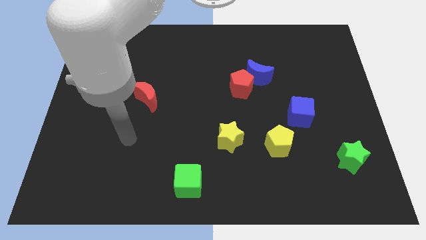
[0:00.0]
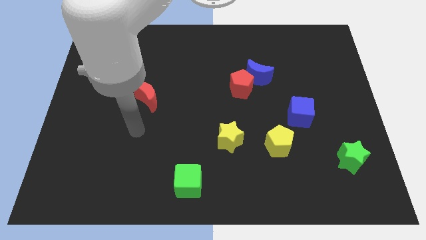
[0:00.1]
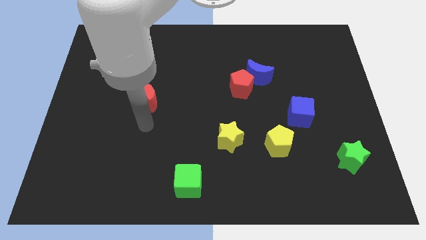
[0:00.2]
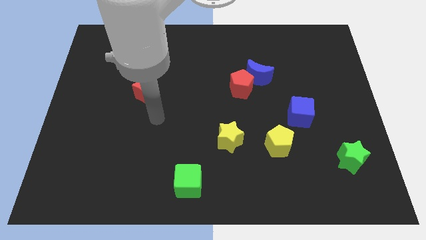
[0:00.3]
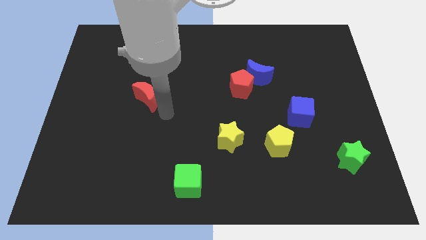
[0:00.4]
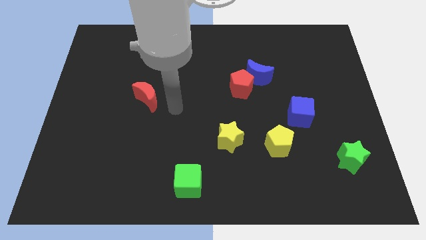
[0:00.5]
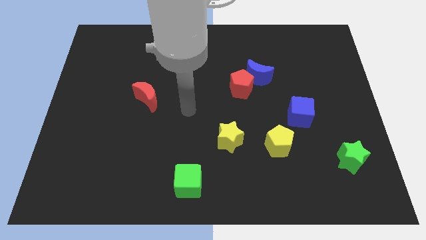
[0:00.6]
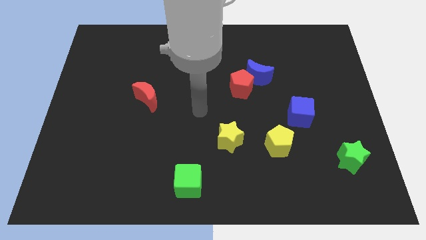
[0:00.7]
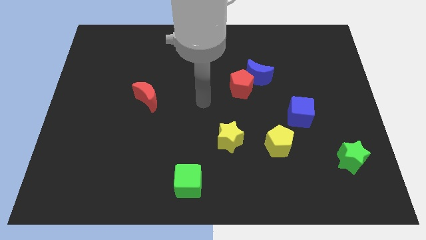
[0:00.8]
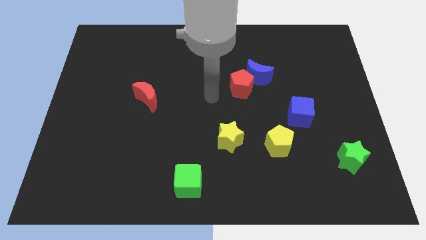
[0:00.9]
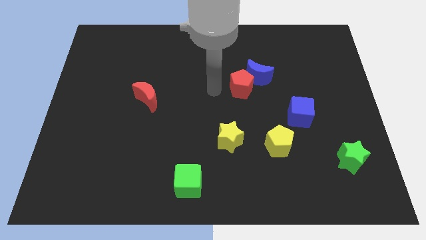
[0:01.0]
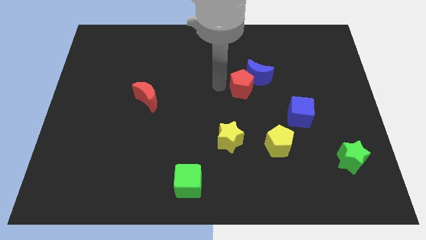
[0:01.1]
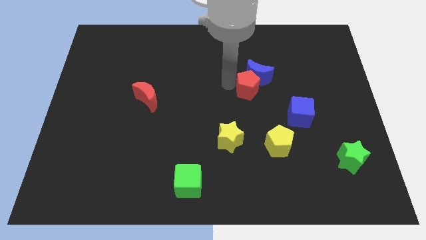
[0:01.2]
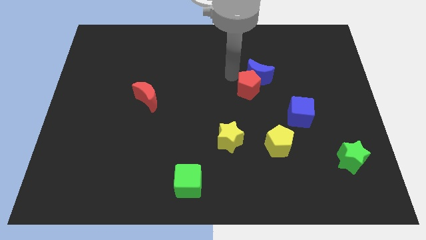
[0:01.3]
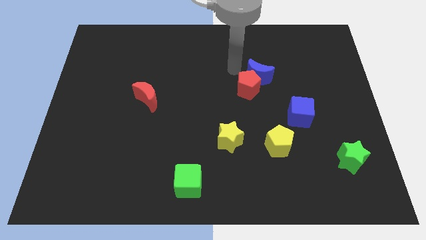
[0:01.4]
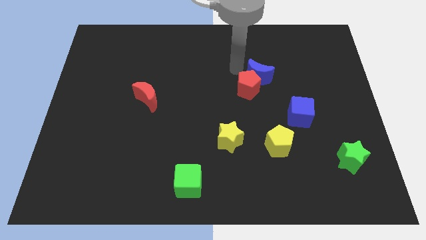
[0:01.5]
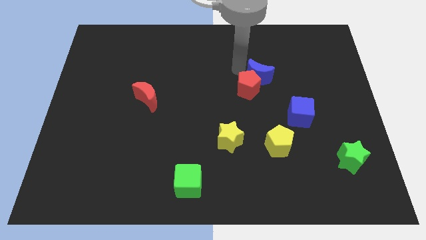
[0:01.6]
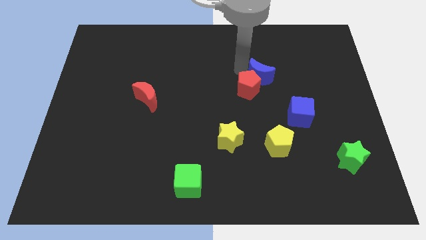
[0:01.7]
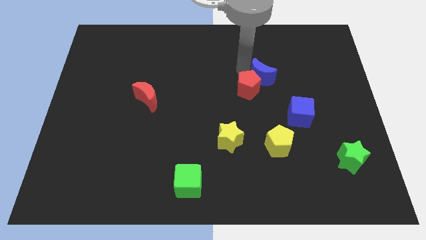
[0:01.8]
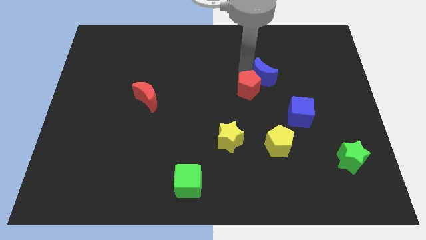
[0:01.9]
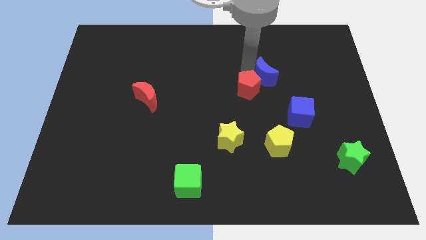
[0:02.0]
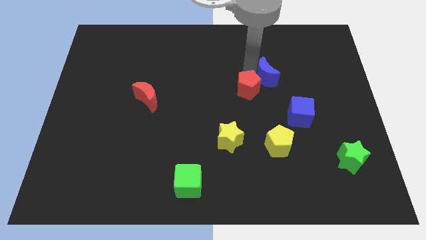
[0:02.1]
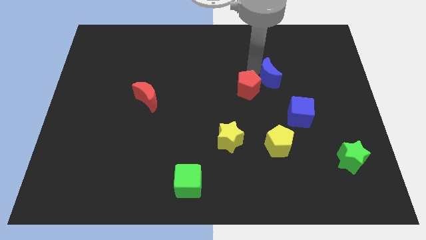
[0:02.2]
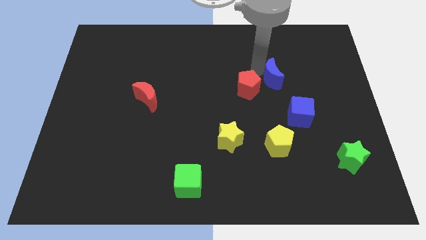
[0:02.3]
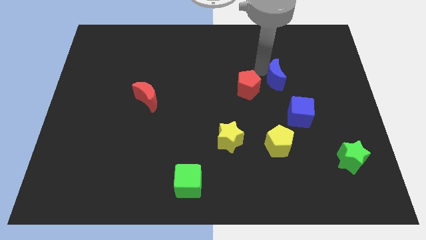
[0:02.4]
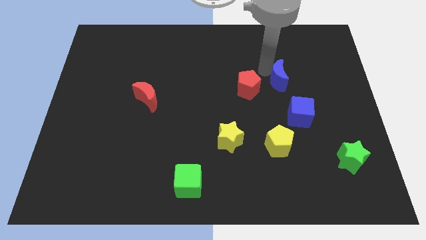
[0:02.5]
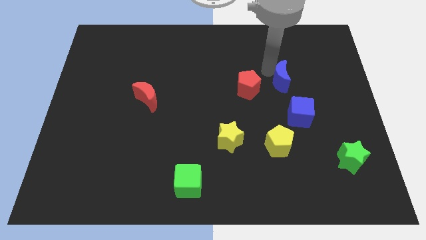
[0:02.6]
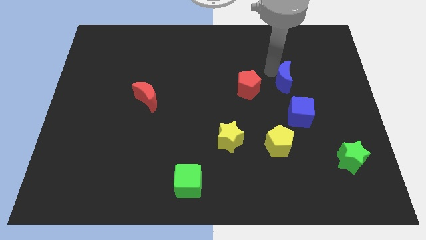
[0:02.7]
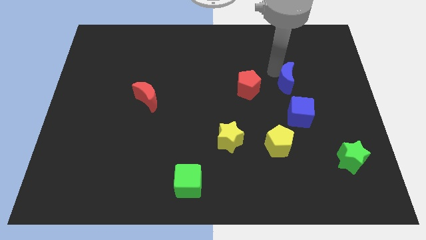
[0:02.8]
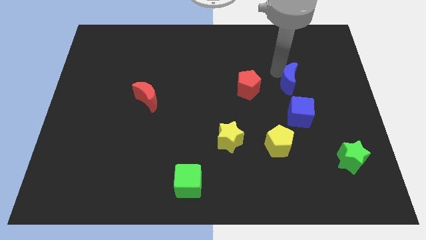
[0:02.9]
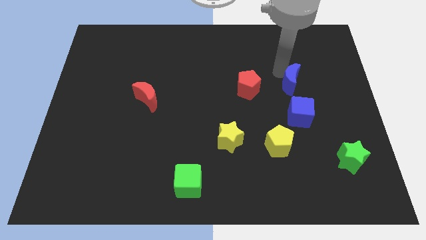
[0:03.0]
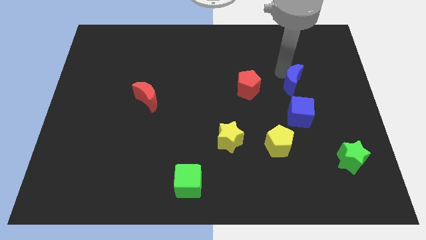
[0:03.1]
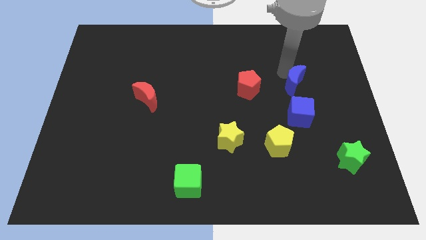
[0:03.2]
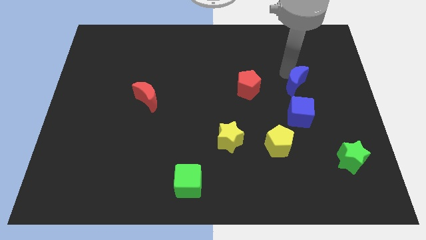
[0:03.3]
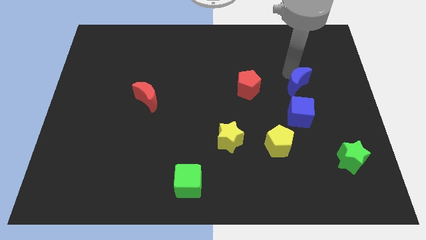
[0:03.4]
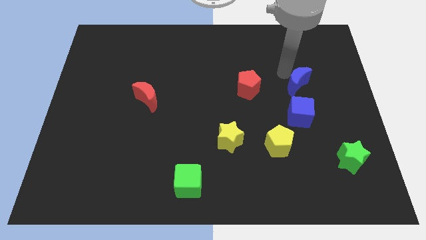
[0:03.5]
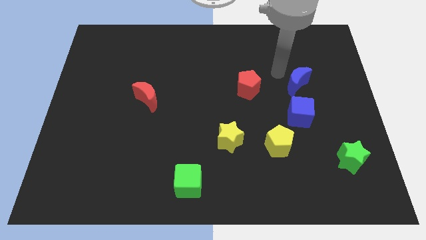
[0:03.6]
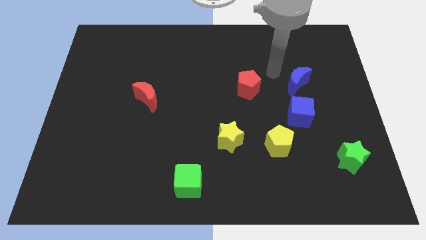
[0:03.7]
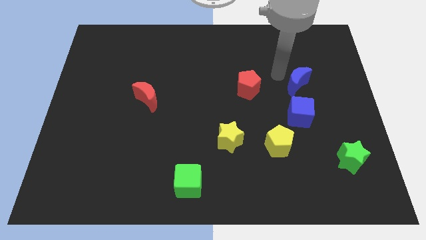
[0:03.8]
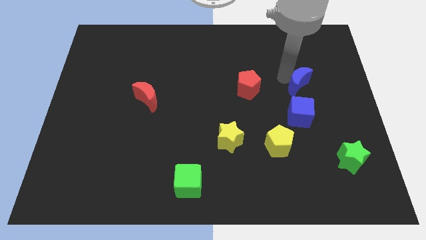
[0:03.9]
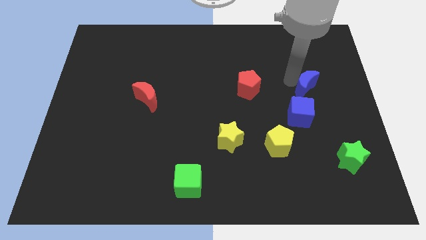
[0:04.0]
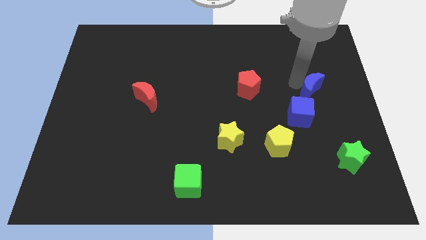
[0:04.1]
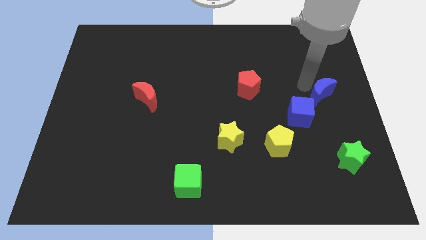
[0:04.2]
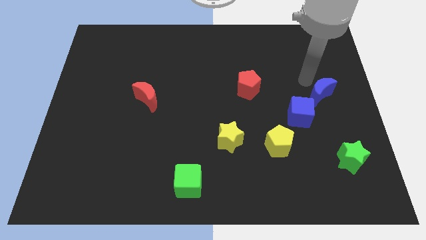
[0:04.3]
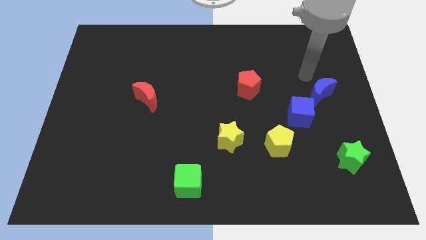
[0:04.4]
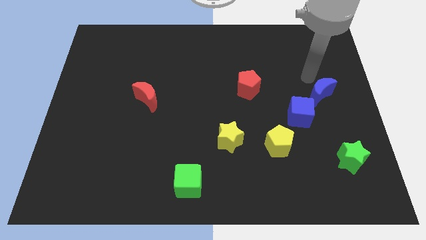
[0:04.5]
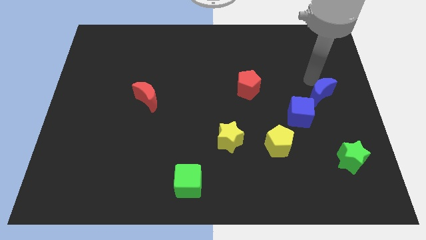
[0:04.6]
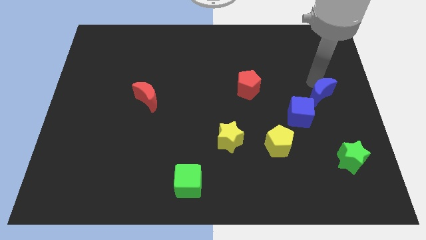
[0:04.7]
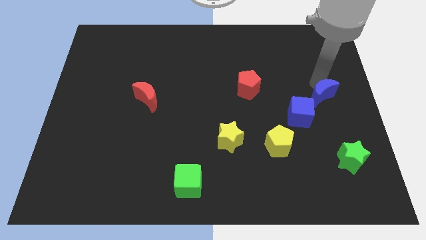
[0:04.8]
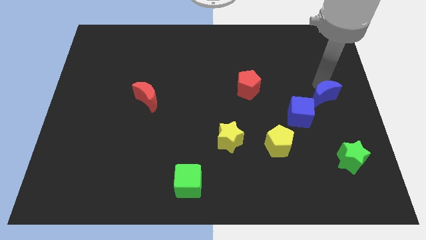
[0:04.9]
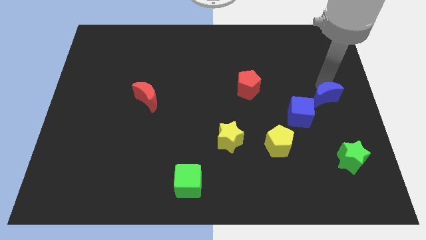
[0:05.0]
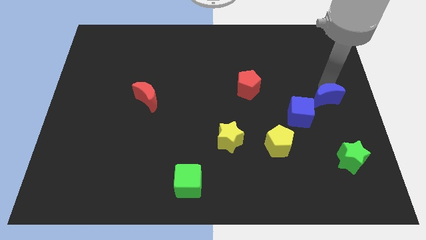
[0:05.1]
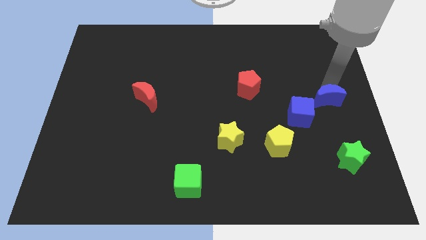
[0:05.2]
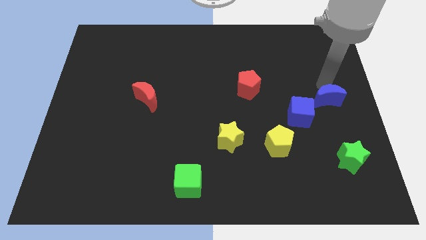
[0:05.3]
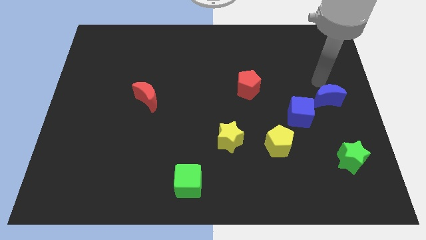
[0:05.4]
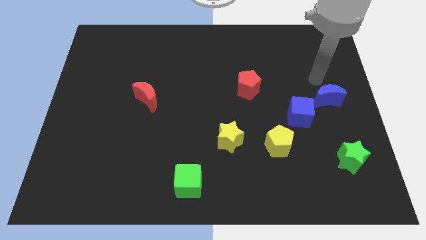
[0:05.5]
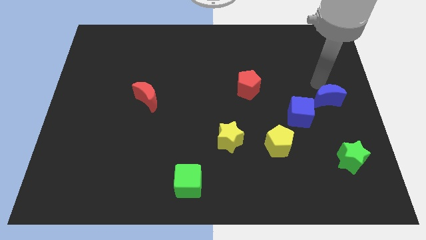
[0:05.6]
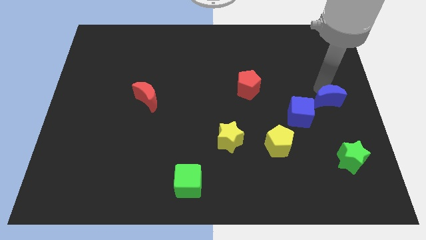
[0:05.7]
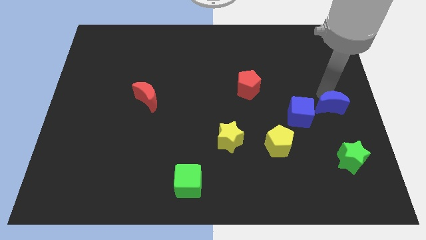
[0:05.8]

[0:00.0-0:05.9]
slide the blue moon to the top side of the green star

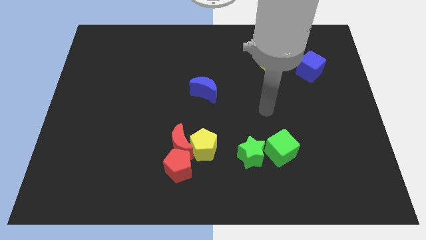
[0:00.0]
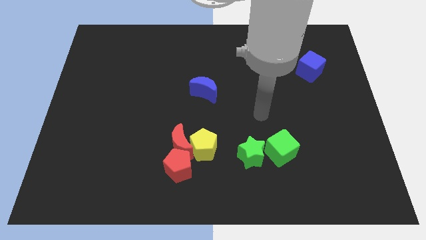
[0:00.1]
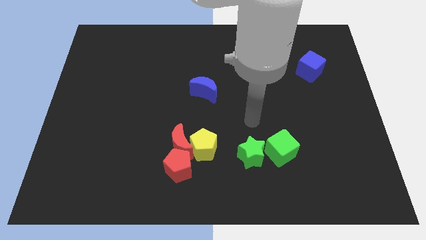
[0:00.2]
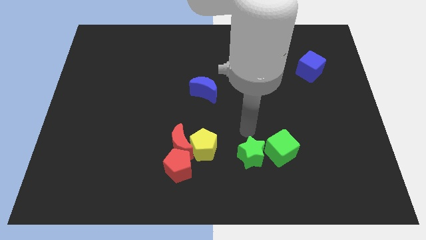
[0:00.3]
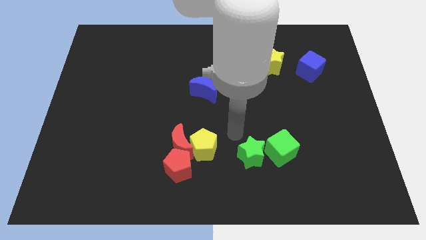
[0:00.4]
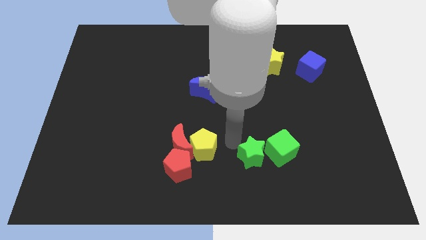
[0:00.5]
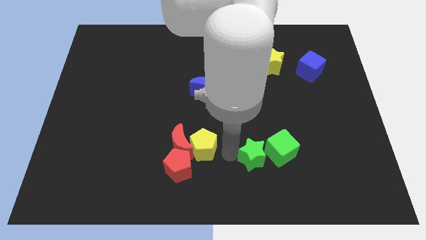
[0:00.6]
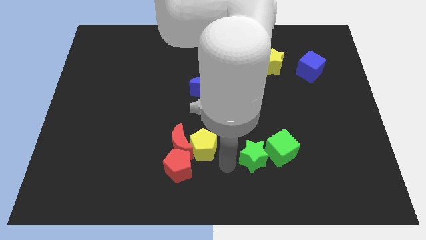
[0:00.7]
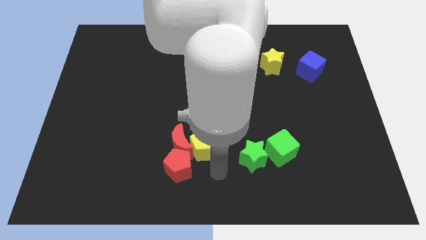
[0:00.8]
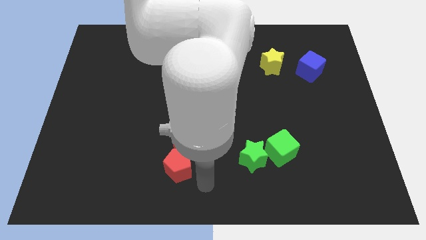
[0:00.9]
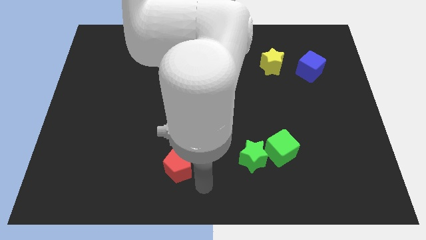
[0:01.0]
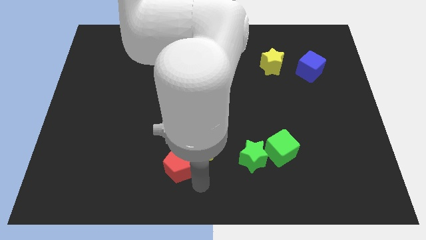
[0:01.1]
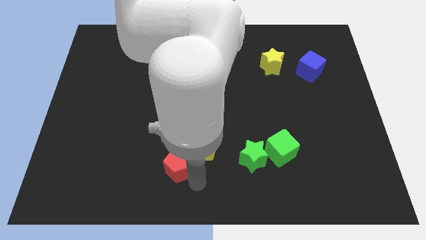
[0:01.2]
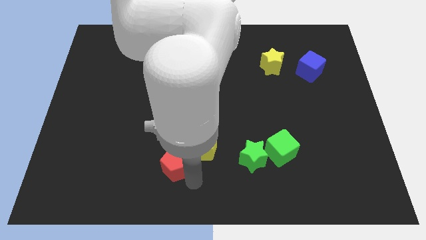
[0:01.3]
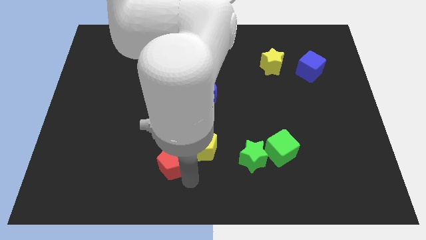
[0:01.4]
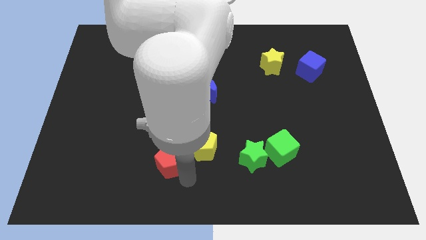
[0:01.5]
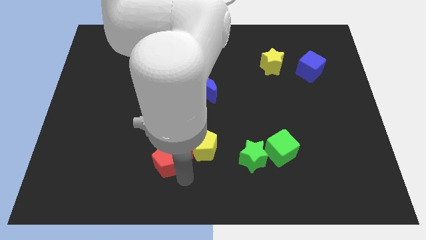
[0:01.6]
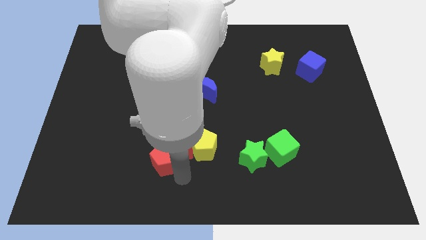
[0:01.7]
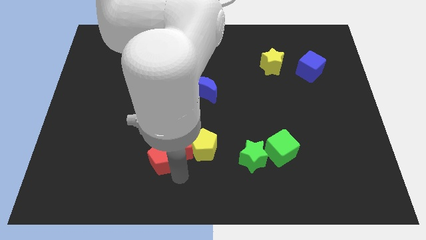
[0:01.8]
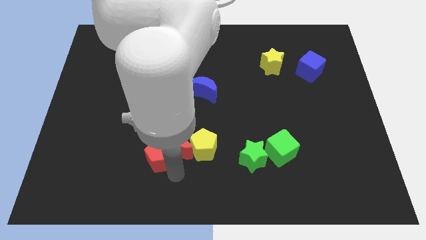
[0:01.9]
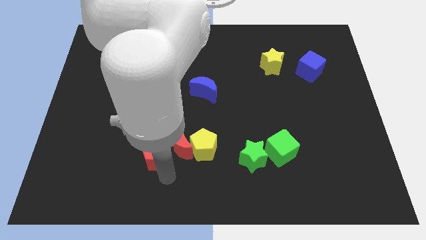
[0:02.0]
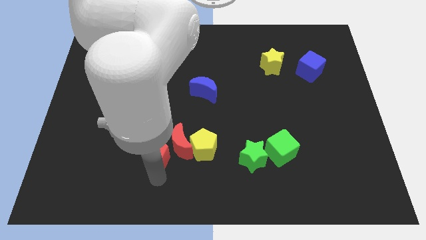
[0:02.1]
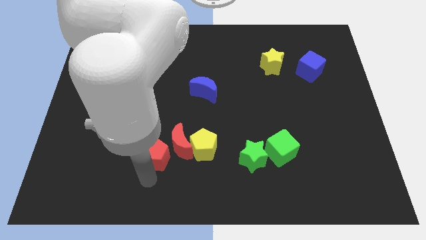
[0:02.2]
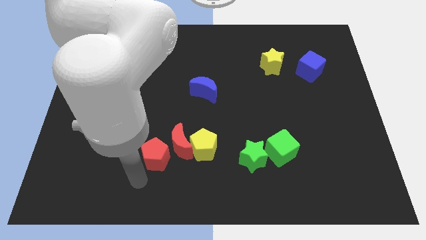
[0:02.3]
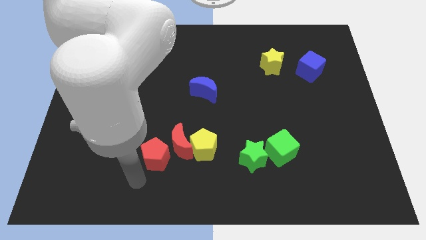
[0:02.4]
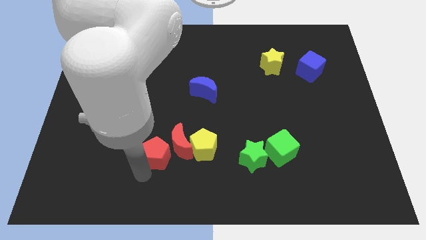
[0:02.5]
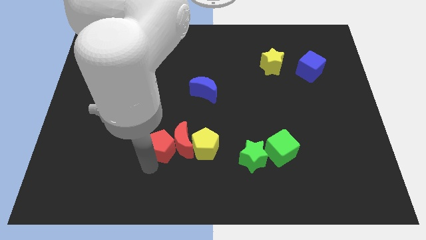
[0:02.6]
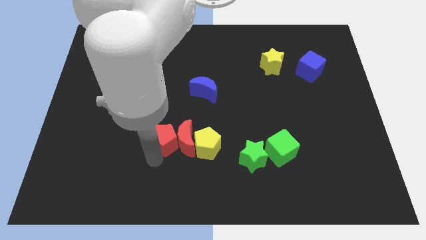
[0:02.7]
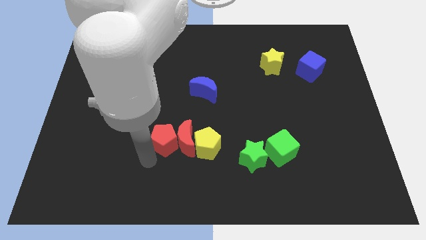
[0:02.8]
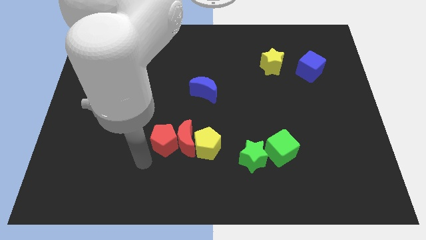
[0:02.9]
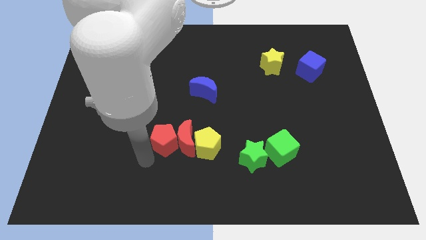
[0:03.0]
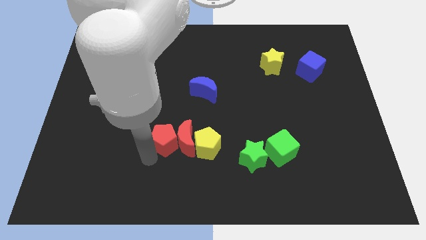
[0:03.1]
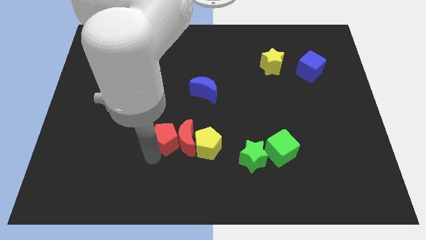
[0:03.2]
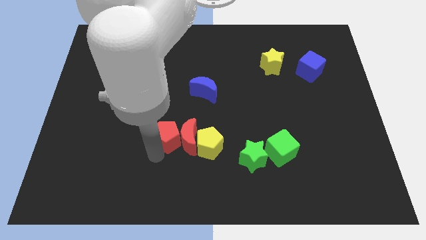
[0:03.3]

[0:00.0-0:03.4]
put the red pentagon to the top left side of the yellow pentagon
